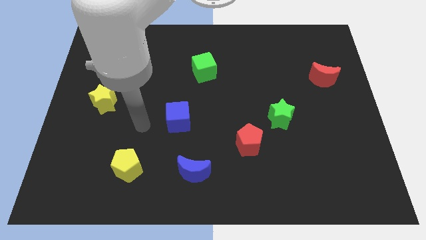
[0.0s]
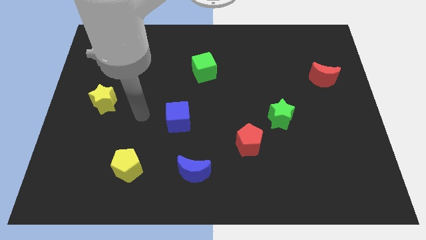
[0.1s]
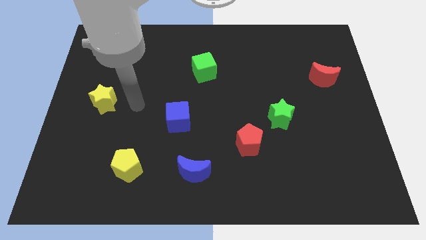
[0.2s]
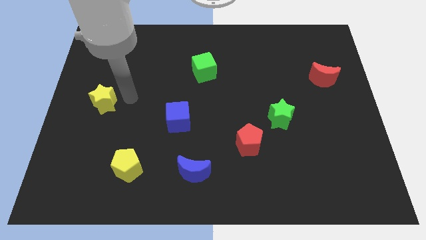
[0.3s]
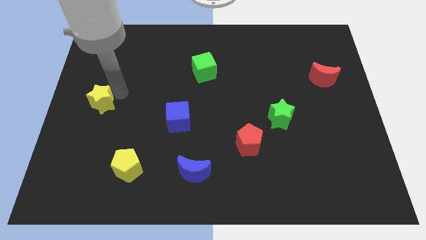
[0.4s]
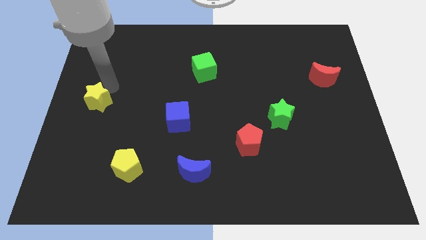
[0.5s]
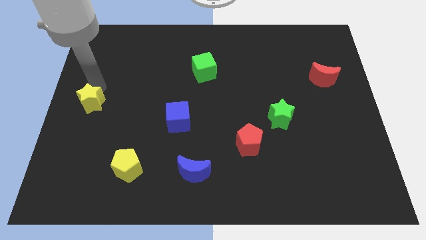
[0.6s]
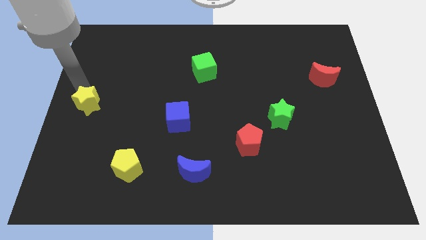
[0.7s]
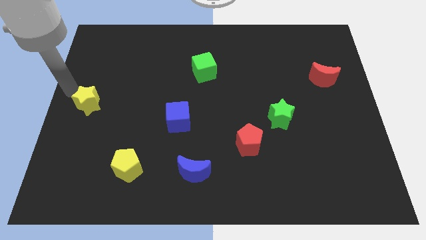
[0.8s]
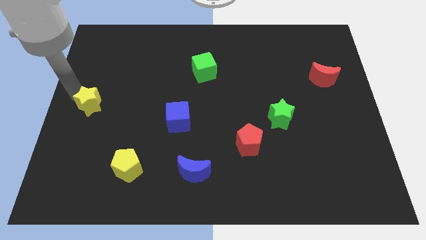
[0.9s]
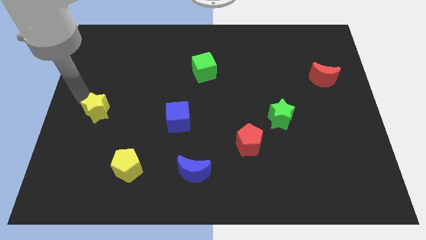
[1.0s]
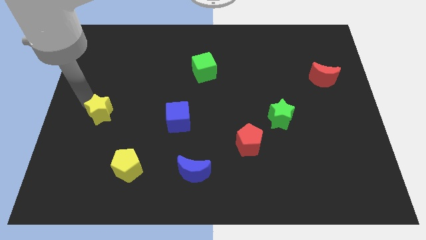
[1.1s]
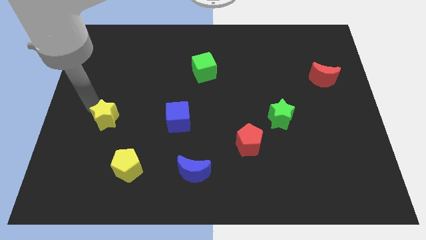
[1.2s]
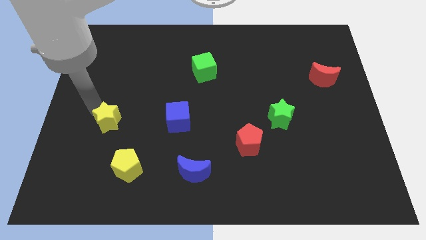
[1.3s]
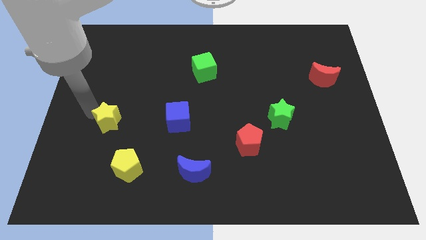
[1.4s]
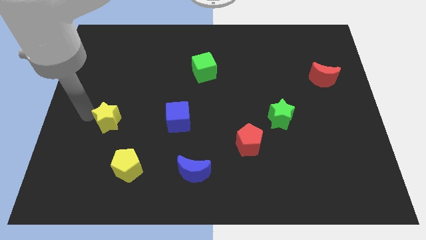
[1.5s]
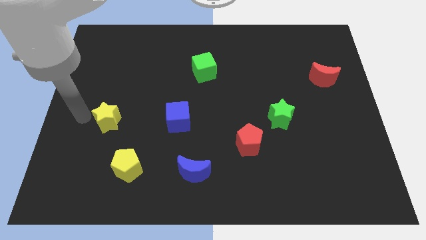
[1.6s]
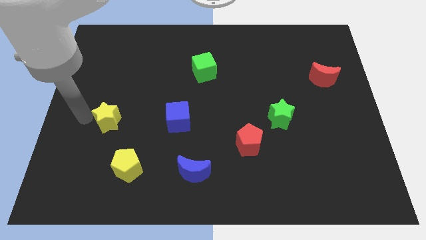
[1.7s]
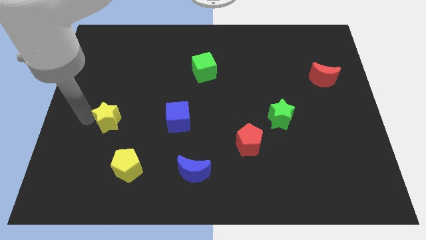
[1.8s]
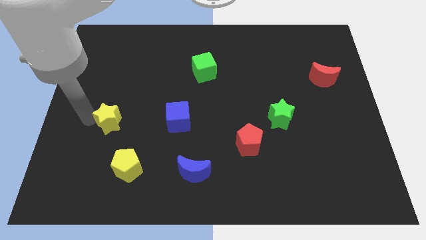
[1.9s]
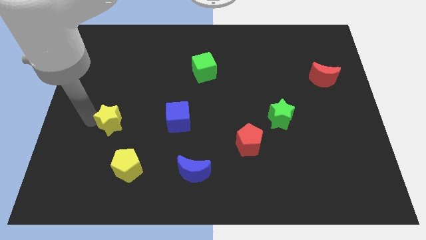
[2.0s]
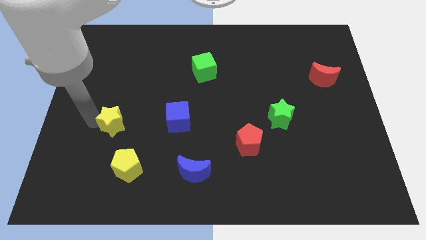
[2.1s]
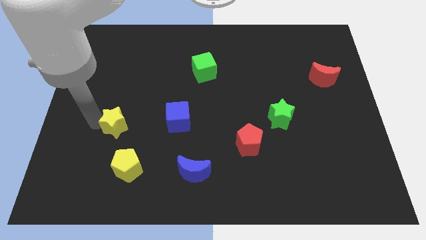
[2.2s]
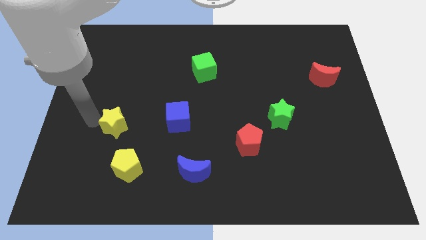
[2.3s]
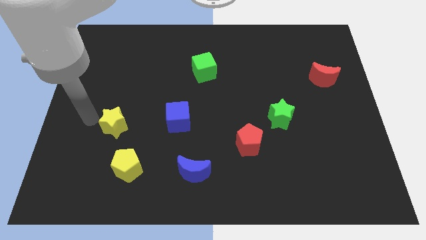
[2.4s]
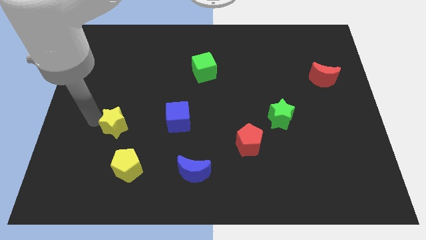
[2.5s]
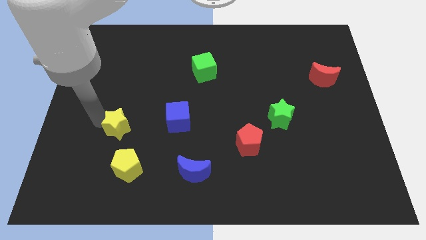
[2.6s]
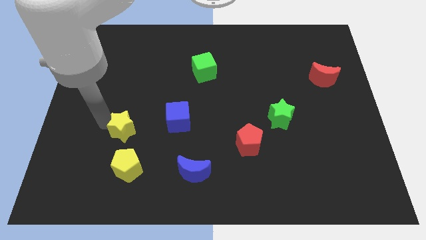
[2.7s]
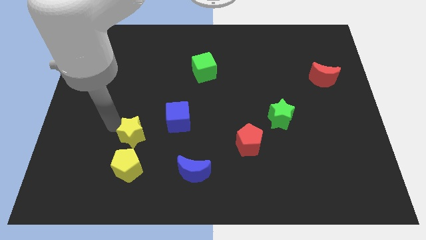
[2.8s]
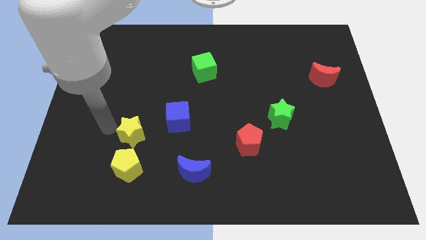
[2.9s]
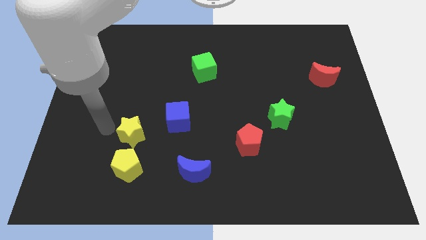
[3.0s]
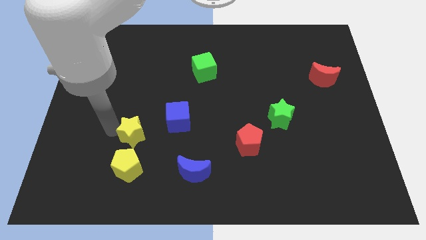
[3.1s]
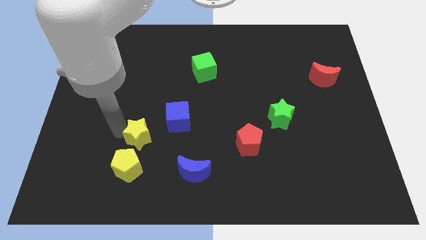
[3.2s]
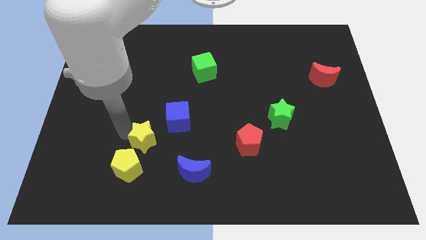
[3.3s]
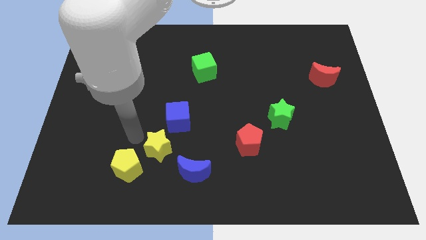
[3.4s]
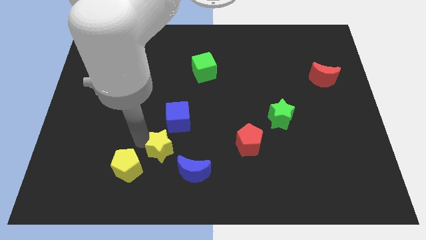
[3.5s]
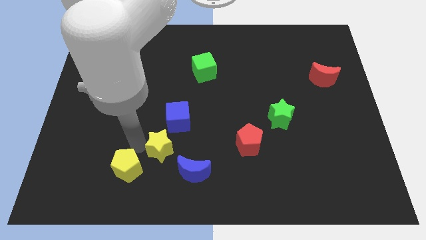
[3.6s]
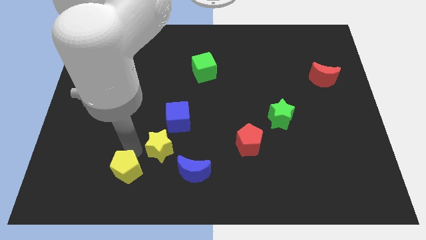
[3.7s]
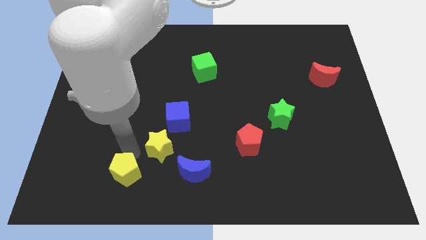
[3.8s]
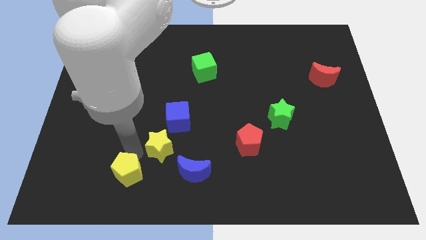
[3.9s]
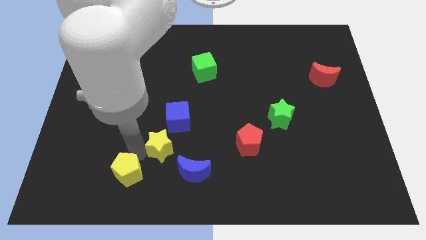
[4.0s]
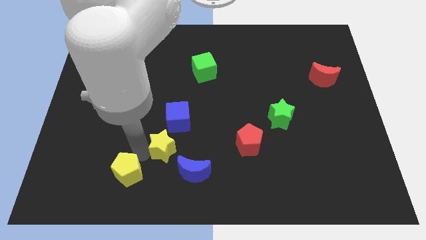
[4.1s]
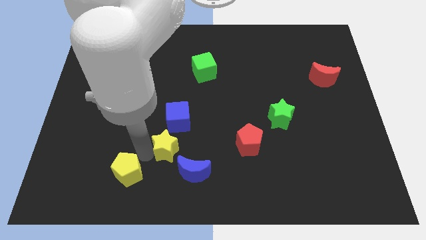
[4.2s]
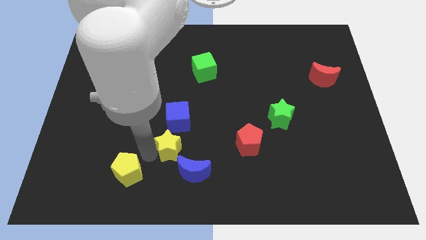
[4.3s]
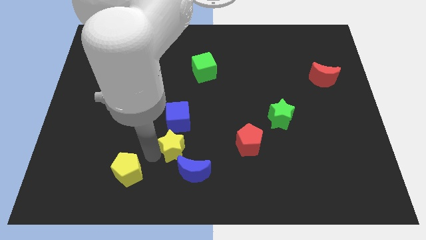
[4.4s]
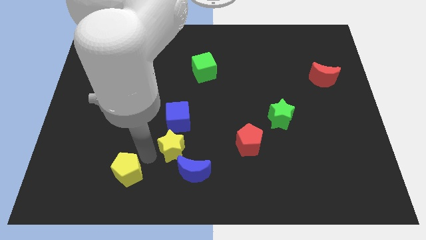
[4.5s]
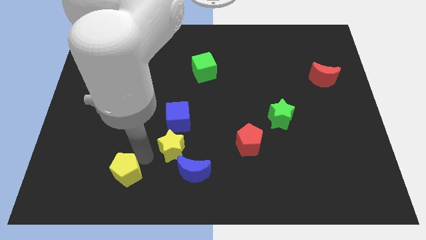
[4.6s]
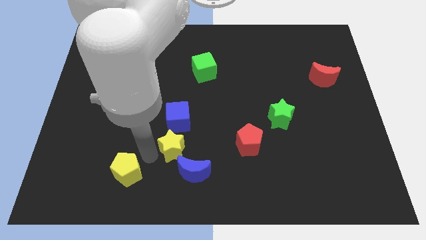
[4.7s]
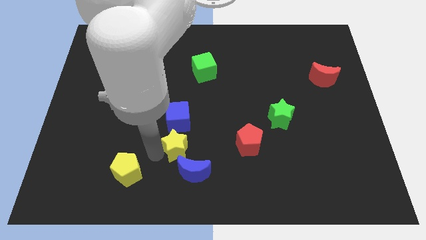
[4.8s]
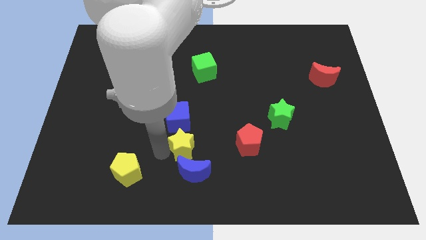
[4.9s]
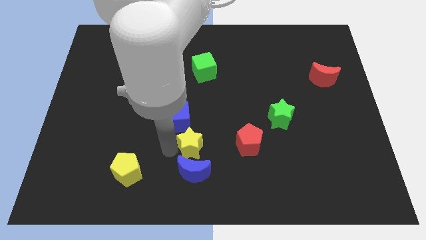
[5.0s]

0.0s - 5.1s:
slide the yellow star to the top right side of the blue moon

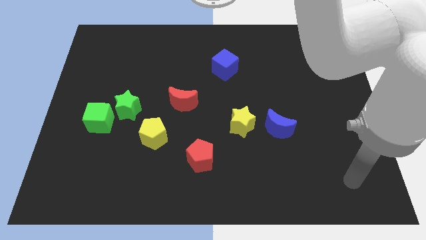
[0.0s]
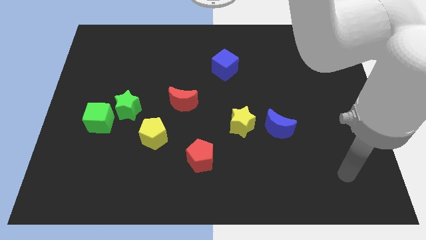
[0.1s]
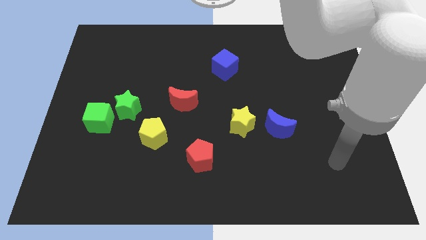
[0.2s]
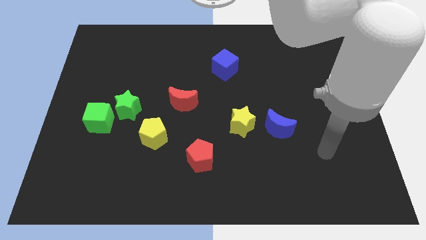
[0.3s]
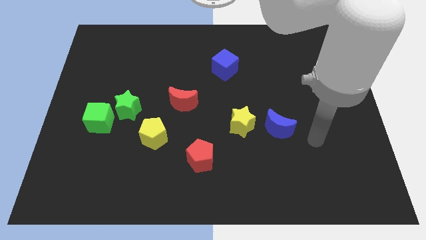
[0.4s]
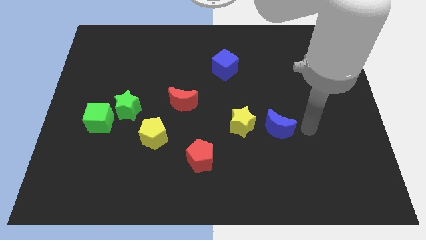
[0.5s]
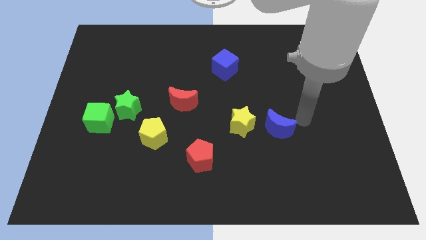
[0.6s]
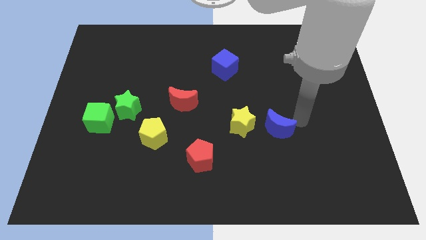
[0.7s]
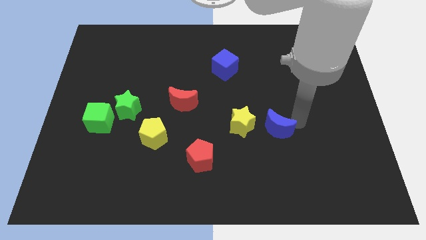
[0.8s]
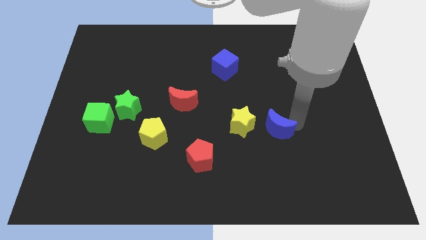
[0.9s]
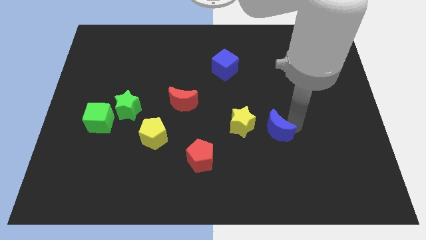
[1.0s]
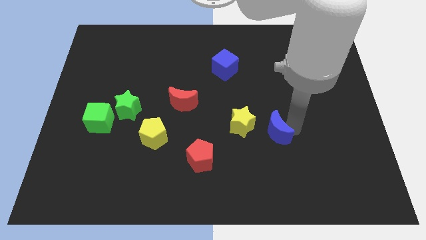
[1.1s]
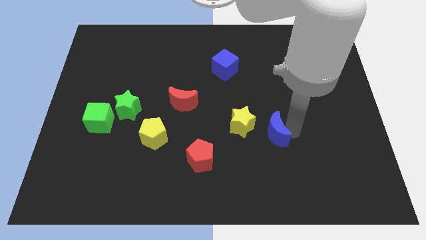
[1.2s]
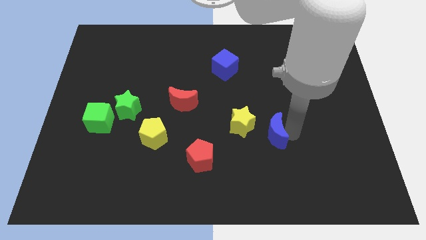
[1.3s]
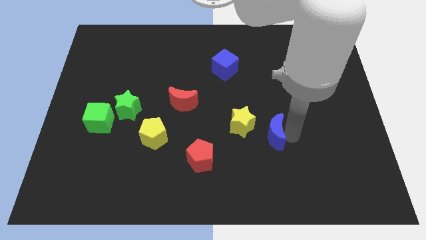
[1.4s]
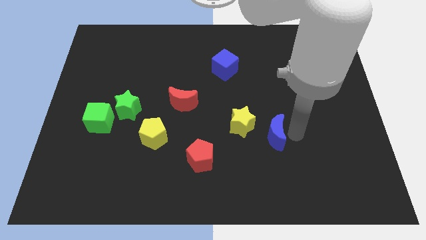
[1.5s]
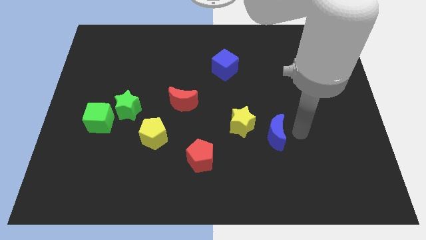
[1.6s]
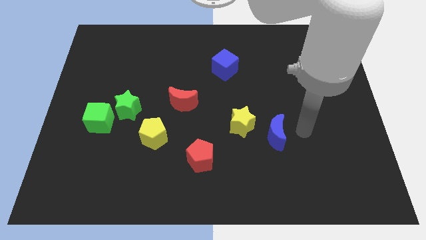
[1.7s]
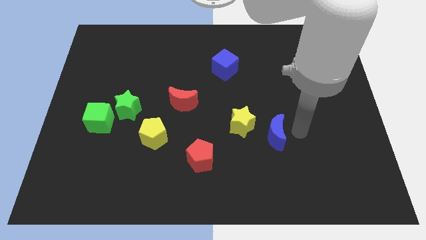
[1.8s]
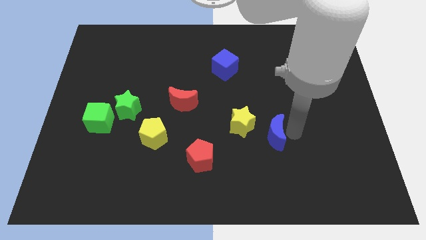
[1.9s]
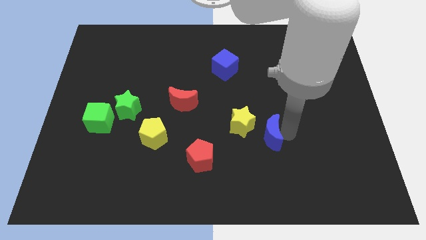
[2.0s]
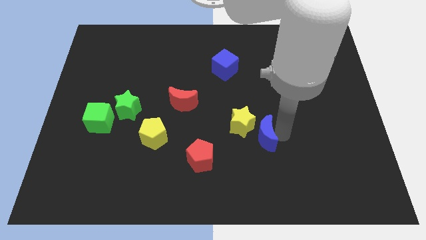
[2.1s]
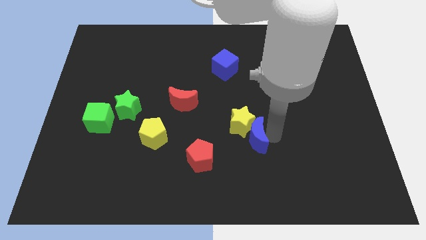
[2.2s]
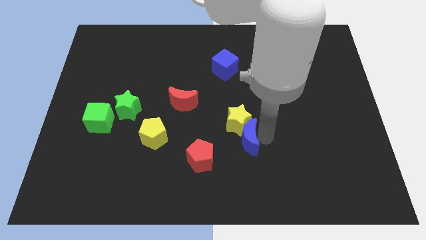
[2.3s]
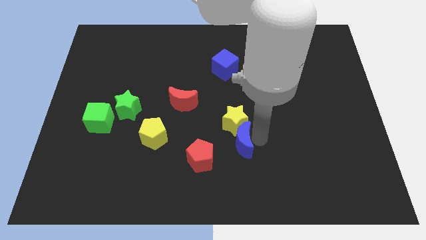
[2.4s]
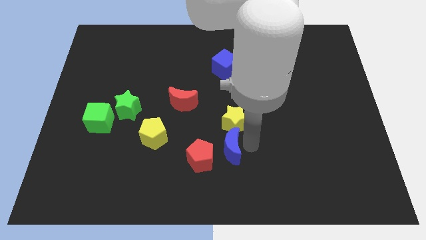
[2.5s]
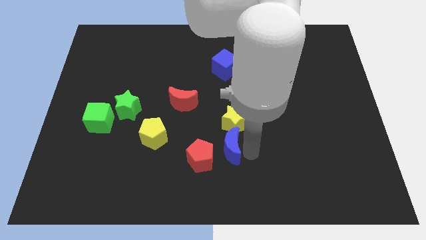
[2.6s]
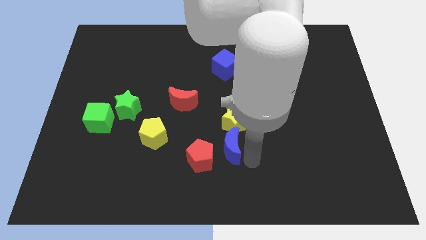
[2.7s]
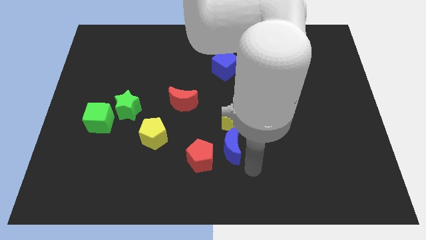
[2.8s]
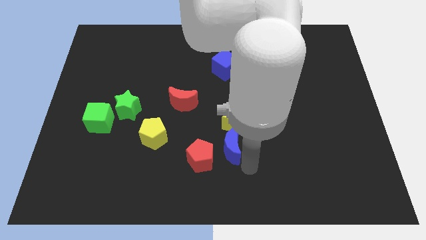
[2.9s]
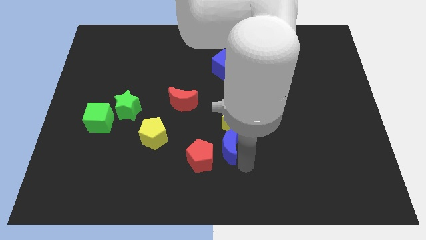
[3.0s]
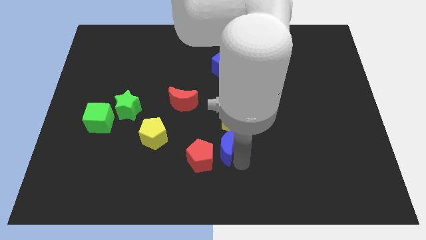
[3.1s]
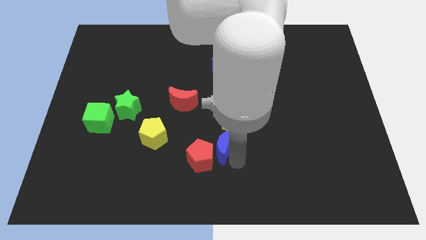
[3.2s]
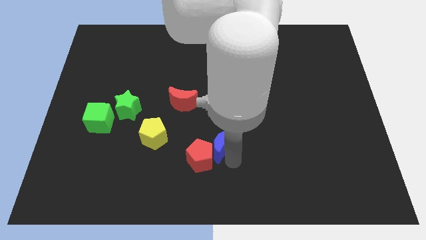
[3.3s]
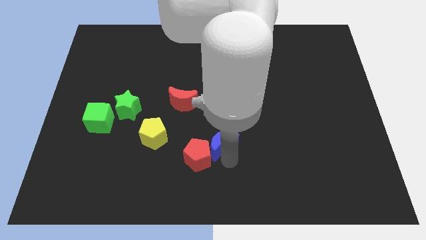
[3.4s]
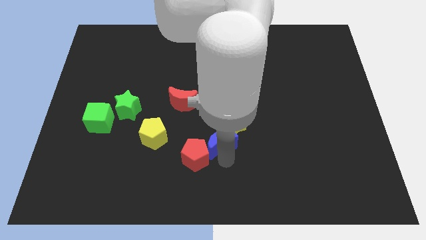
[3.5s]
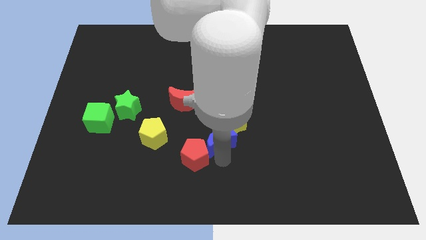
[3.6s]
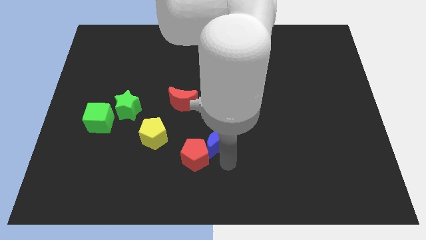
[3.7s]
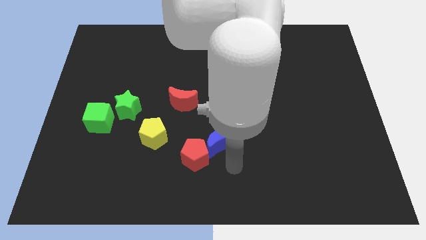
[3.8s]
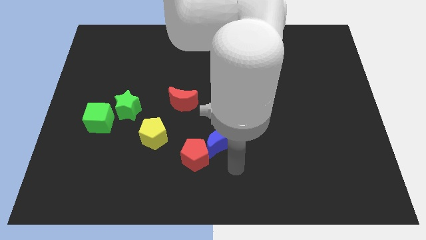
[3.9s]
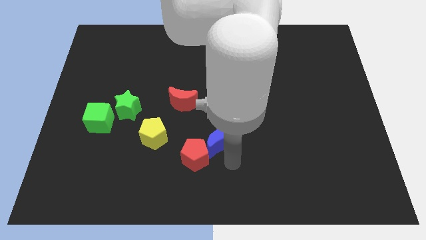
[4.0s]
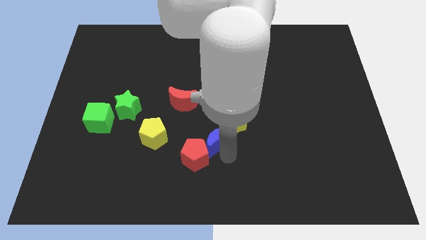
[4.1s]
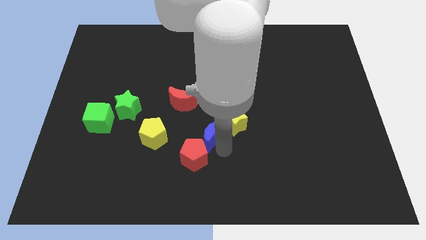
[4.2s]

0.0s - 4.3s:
slide the blue moon to the bottom right of the red moon
